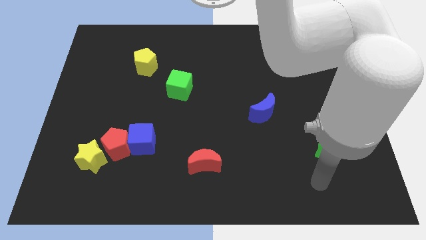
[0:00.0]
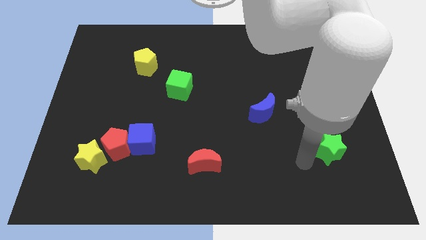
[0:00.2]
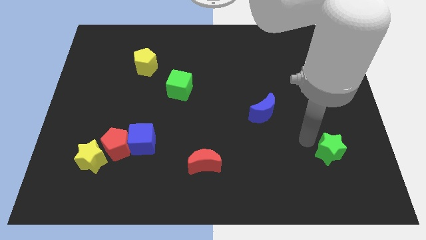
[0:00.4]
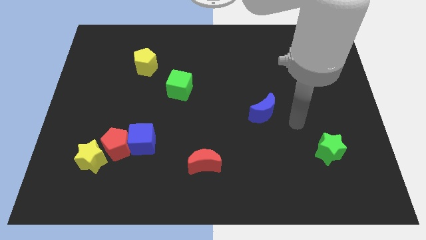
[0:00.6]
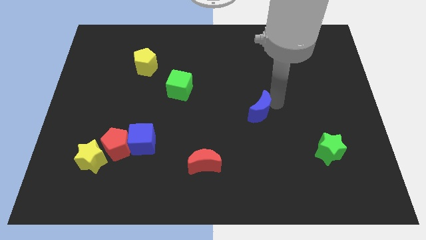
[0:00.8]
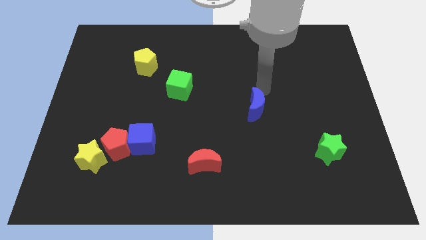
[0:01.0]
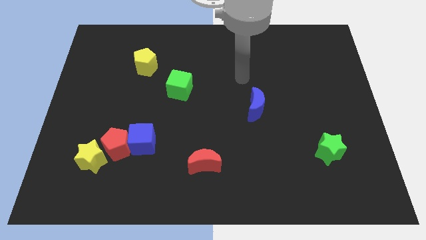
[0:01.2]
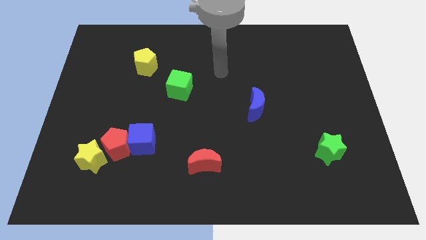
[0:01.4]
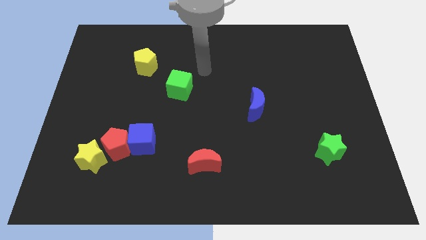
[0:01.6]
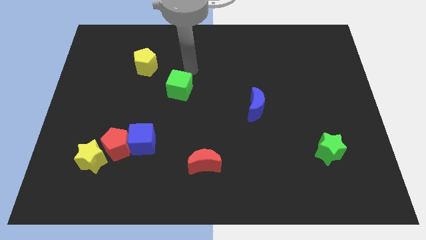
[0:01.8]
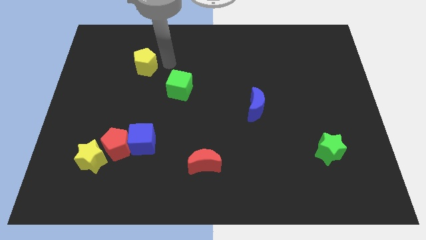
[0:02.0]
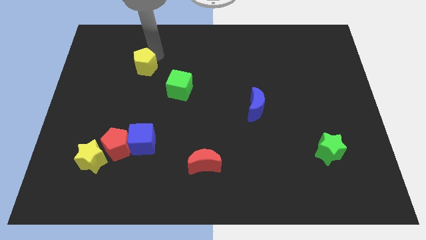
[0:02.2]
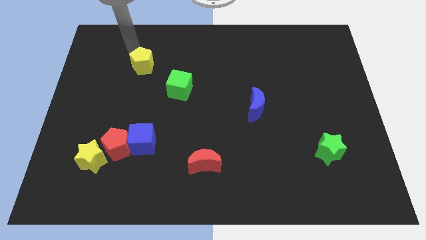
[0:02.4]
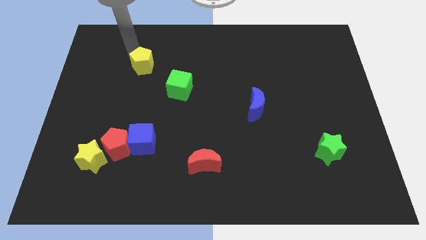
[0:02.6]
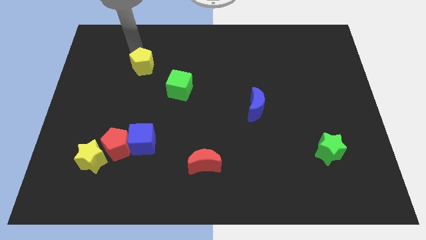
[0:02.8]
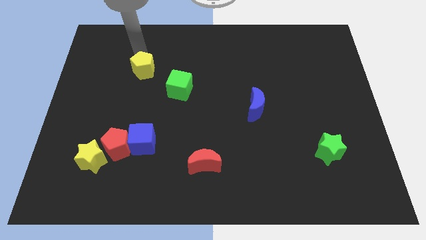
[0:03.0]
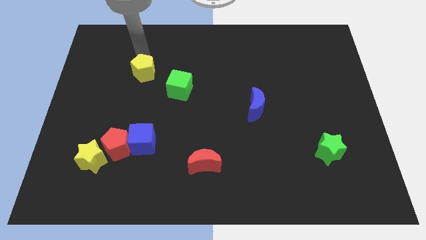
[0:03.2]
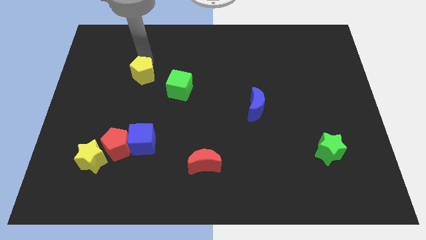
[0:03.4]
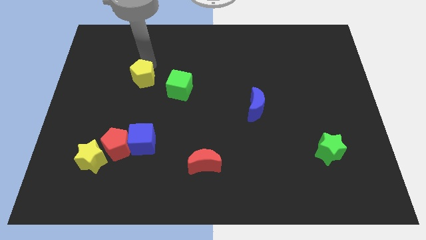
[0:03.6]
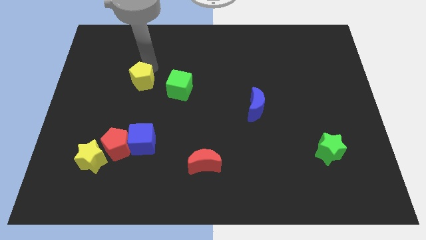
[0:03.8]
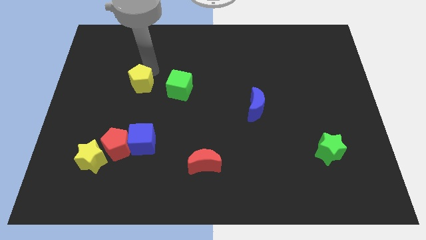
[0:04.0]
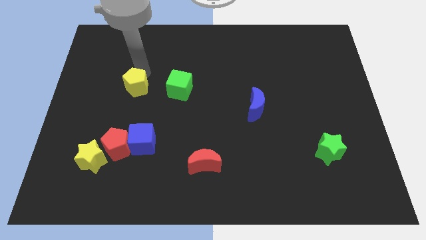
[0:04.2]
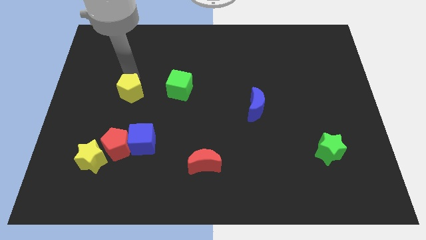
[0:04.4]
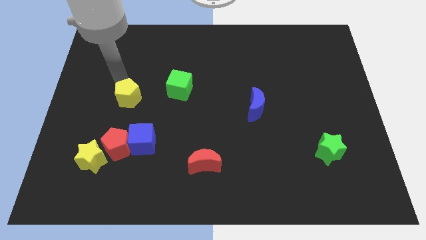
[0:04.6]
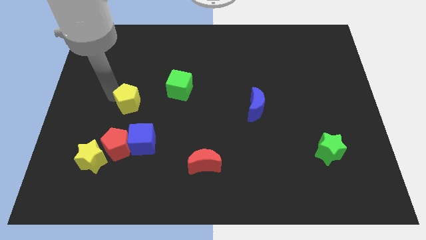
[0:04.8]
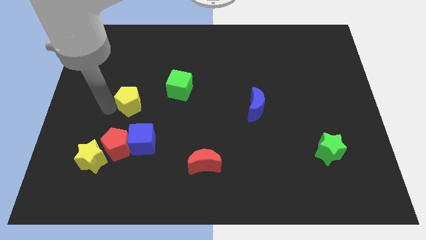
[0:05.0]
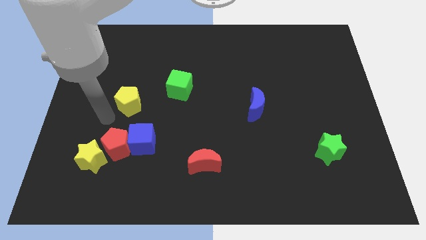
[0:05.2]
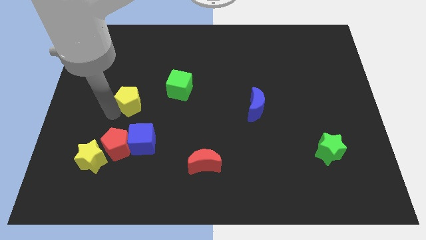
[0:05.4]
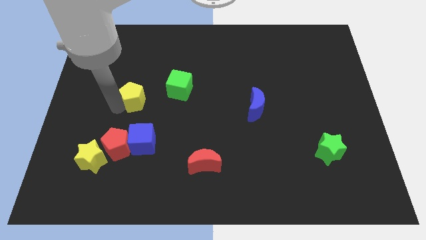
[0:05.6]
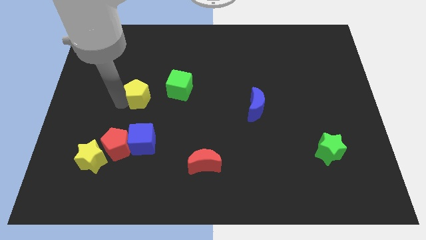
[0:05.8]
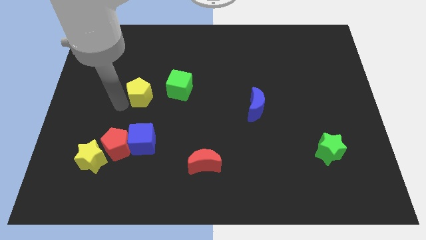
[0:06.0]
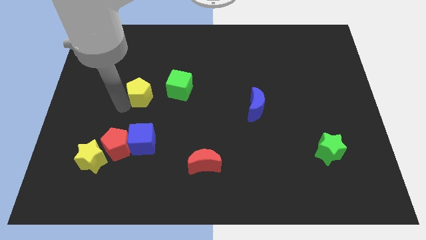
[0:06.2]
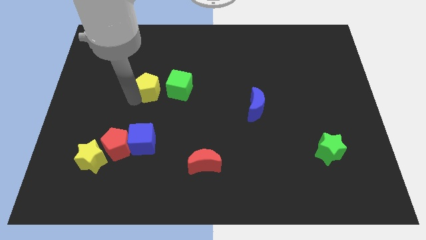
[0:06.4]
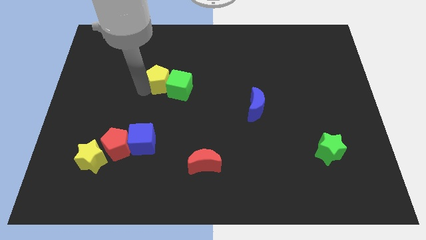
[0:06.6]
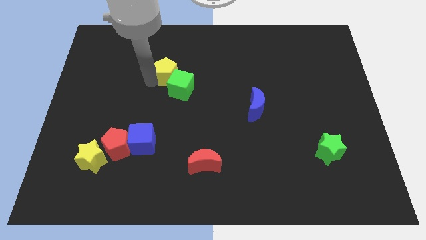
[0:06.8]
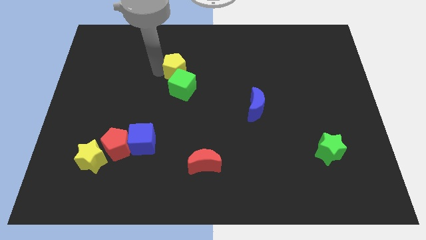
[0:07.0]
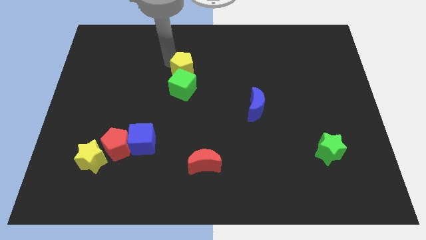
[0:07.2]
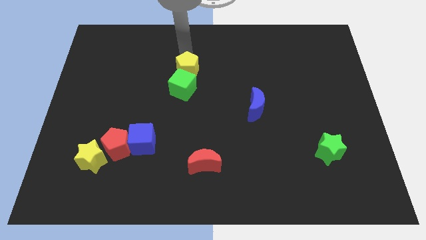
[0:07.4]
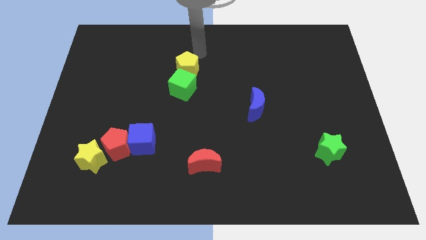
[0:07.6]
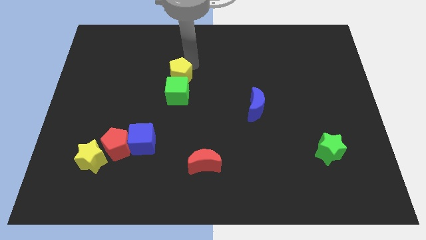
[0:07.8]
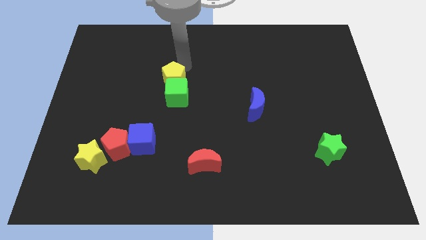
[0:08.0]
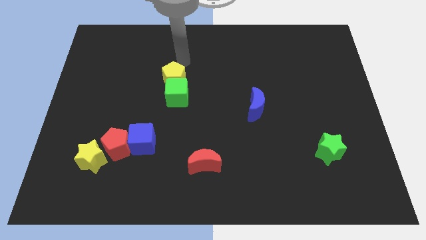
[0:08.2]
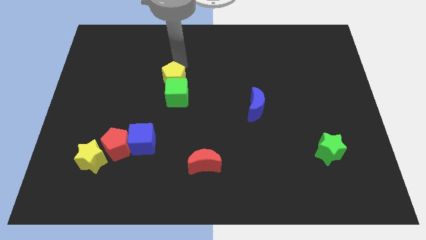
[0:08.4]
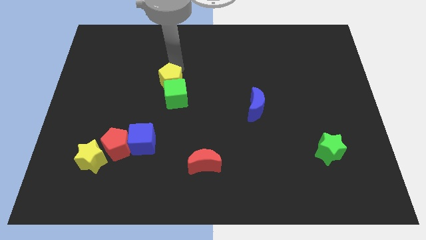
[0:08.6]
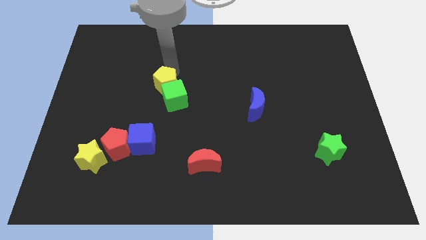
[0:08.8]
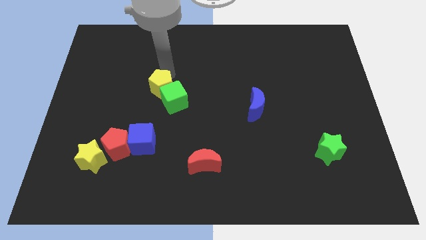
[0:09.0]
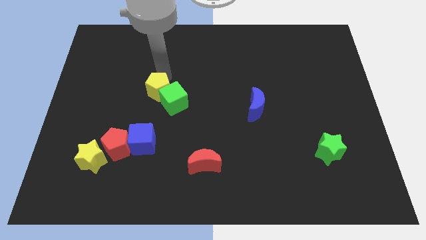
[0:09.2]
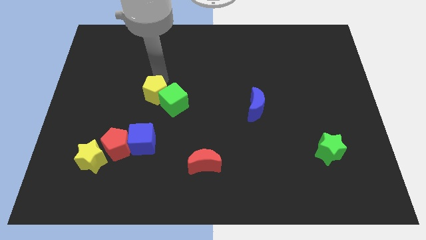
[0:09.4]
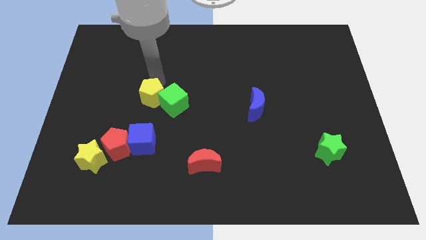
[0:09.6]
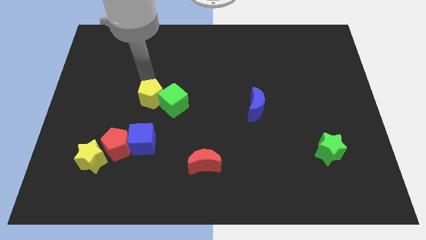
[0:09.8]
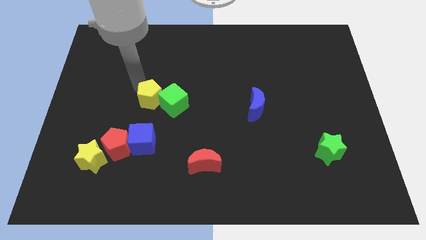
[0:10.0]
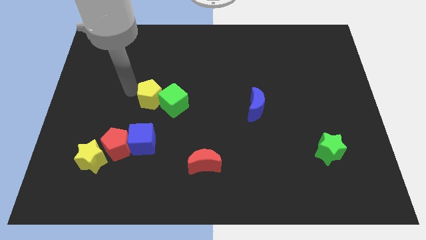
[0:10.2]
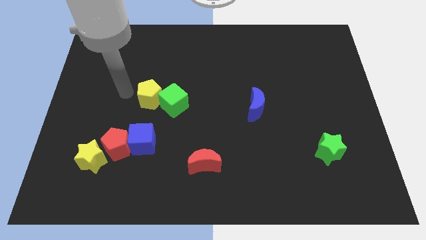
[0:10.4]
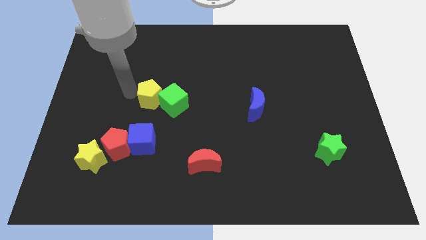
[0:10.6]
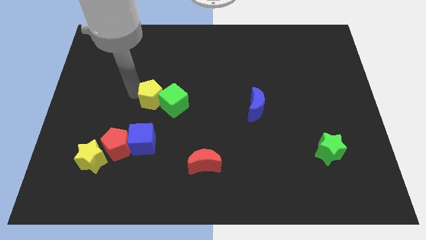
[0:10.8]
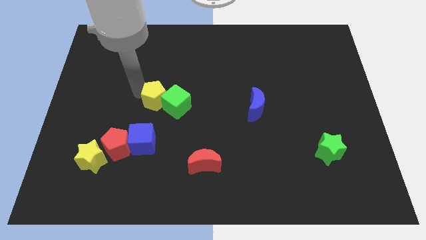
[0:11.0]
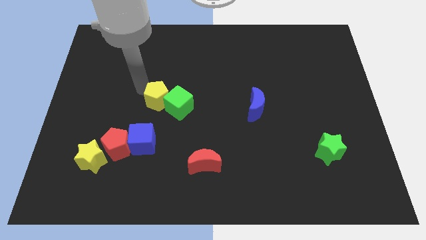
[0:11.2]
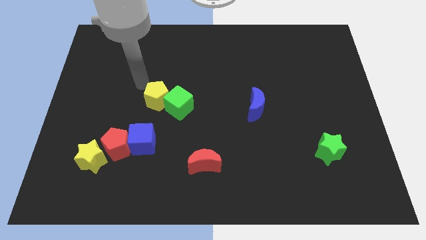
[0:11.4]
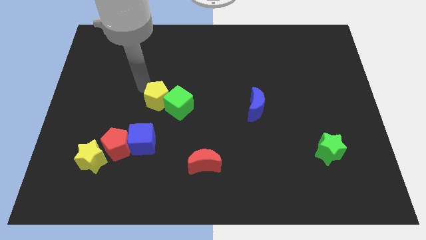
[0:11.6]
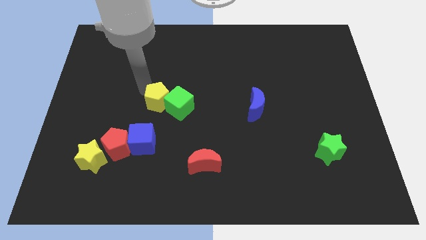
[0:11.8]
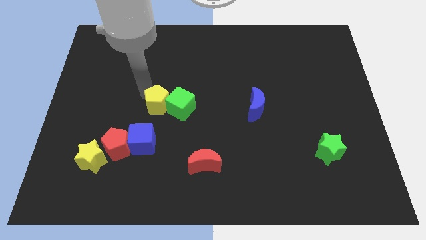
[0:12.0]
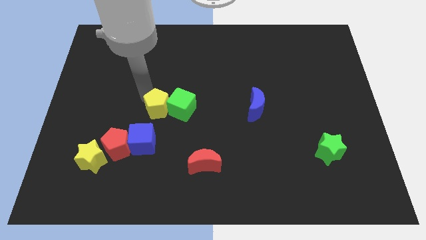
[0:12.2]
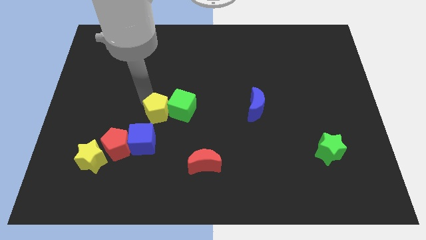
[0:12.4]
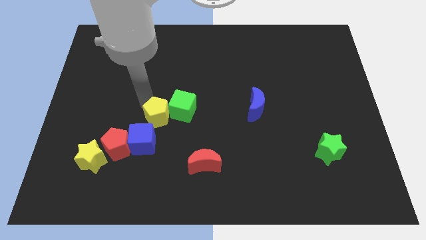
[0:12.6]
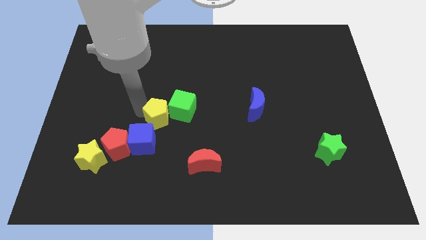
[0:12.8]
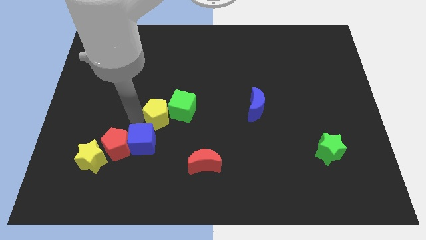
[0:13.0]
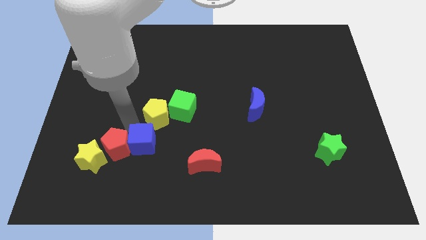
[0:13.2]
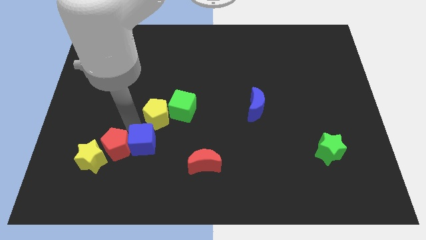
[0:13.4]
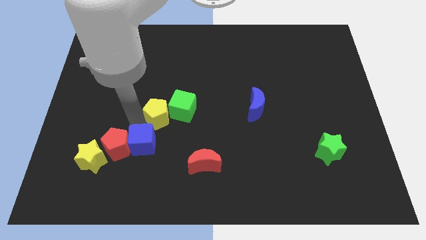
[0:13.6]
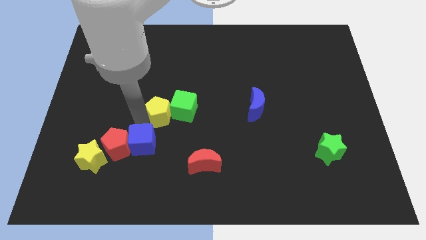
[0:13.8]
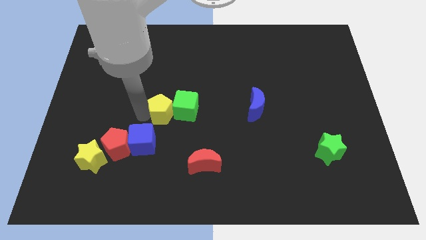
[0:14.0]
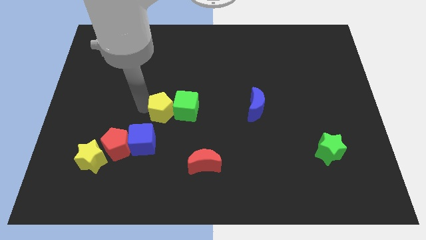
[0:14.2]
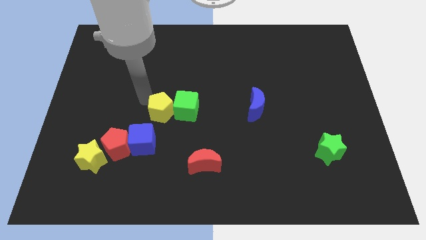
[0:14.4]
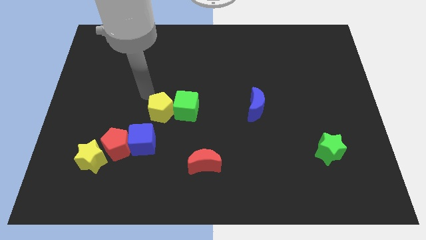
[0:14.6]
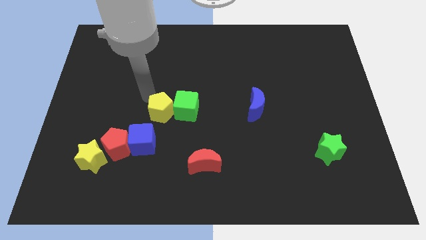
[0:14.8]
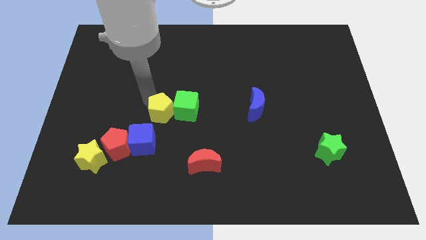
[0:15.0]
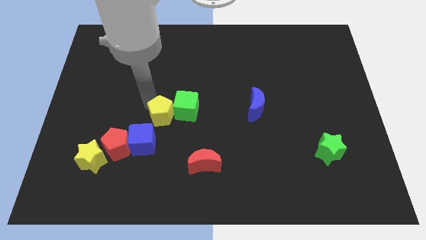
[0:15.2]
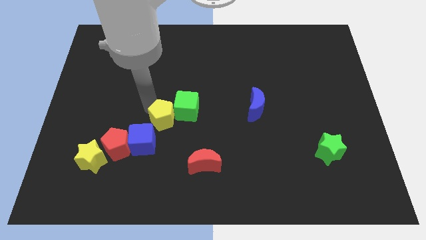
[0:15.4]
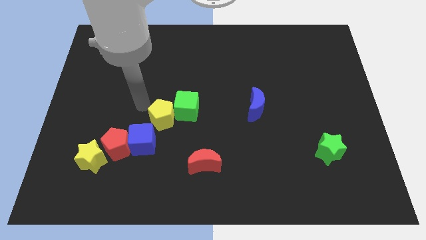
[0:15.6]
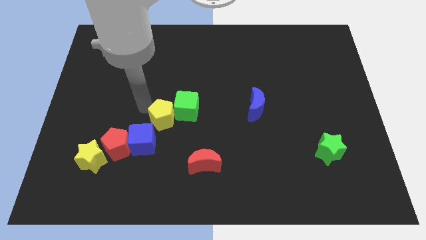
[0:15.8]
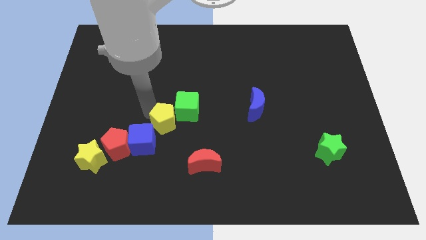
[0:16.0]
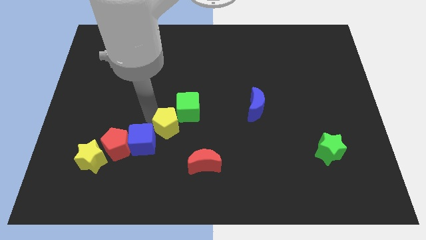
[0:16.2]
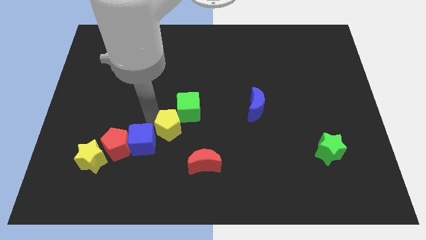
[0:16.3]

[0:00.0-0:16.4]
move the yellow pentagon to the right side of the red pentagon
